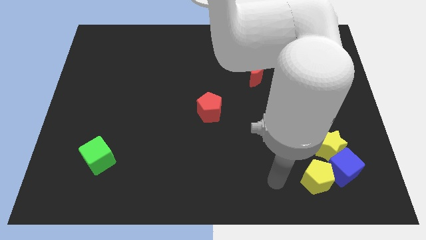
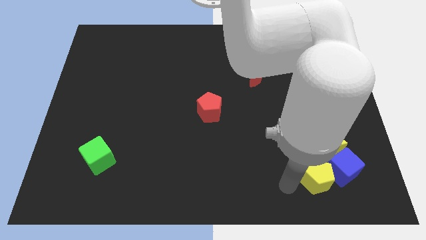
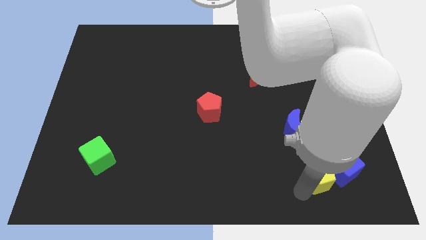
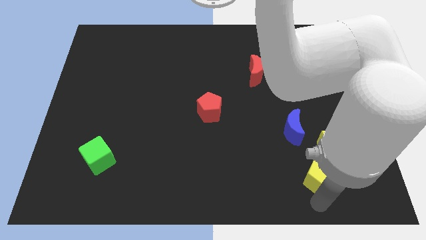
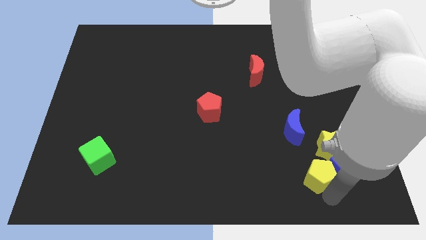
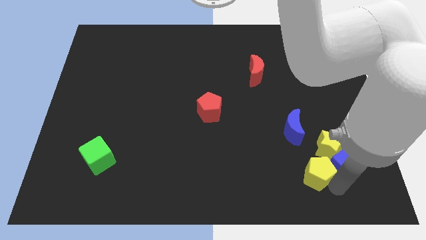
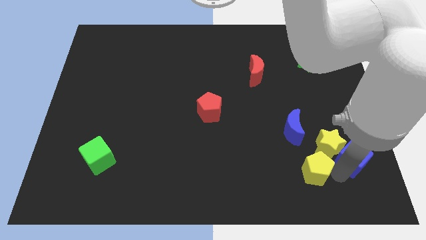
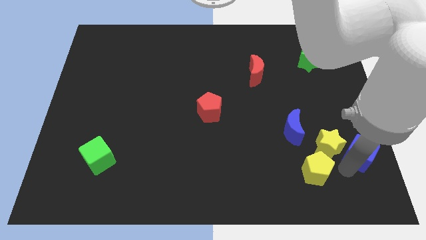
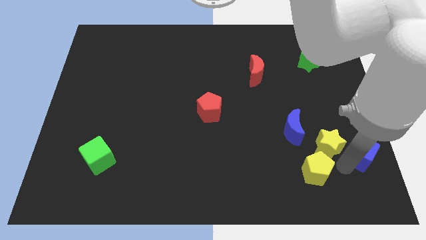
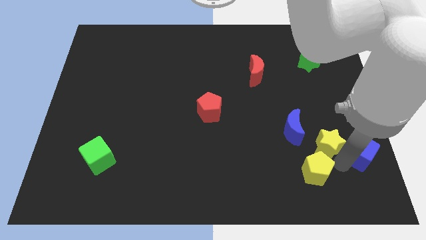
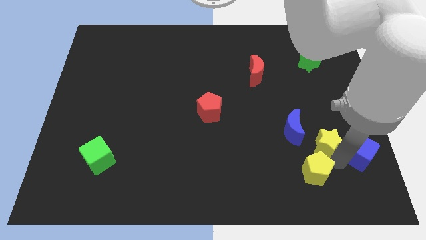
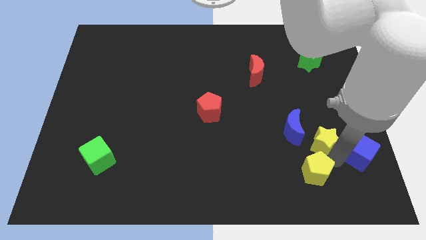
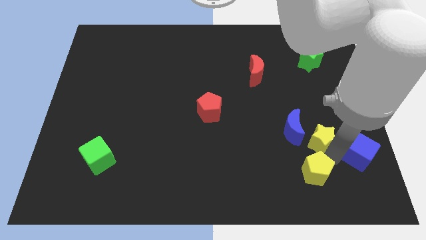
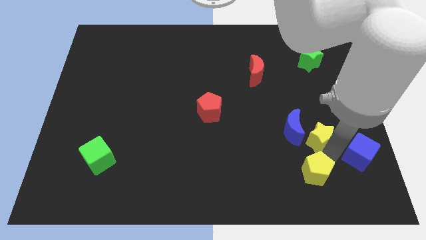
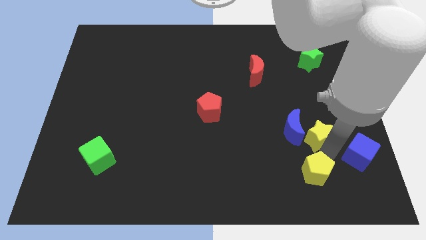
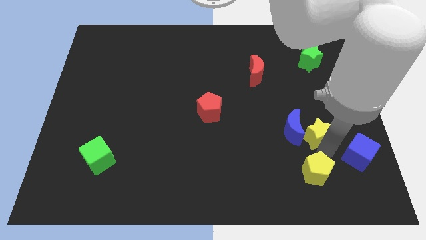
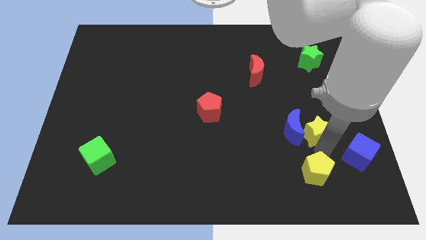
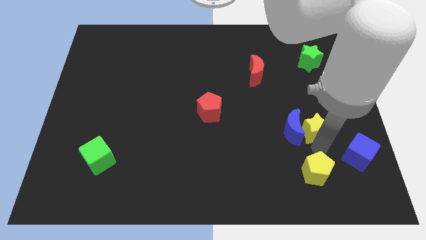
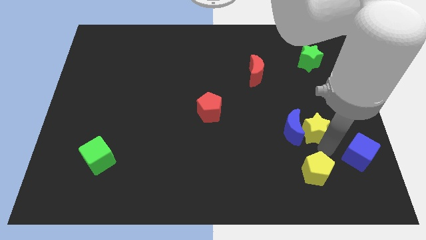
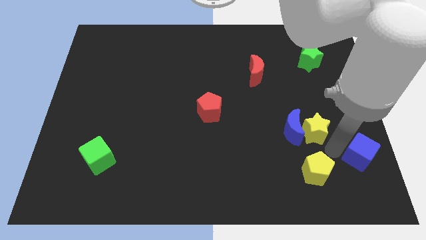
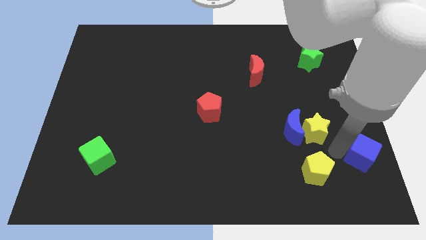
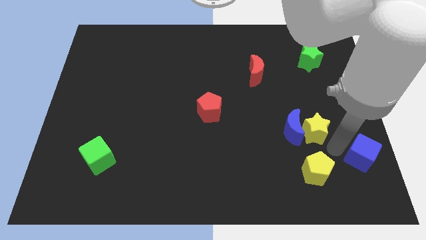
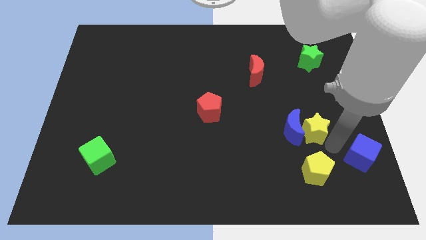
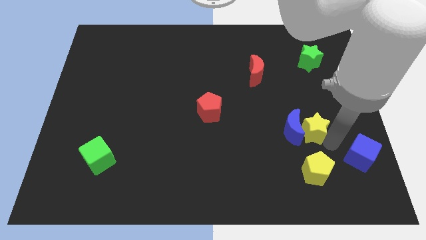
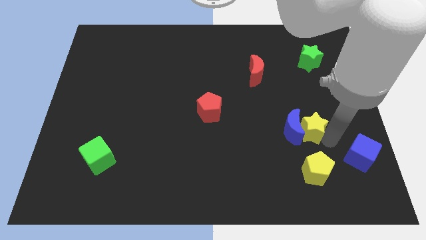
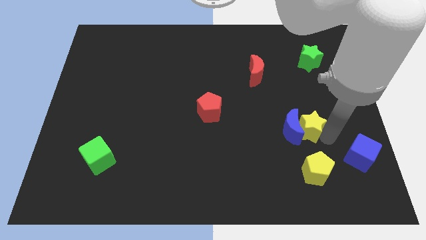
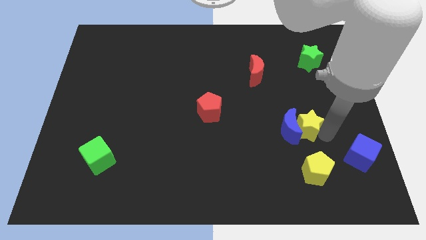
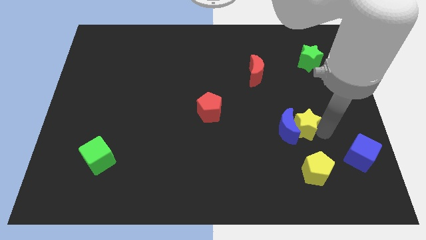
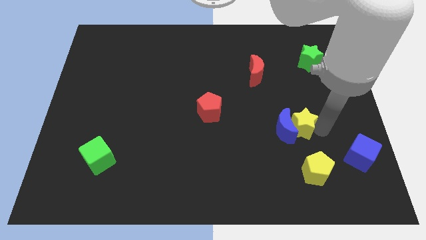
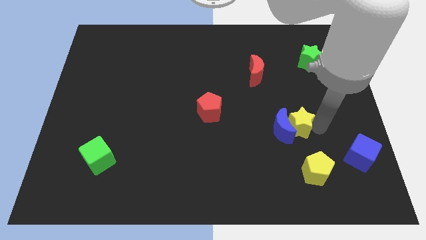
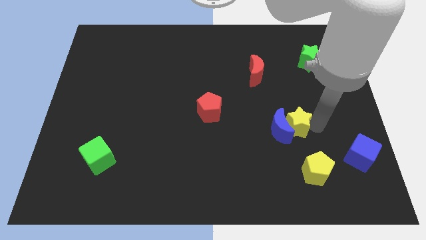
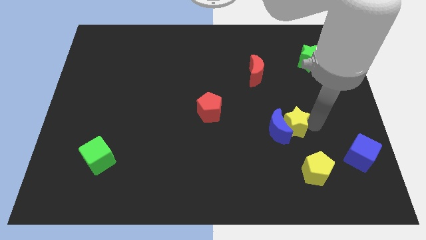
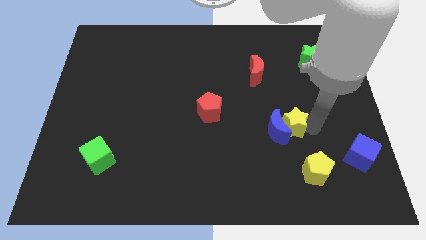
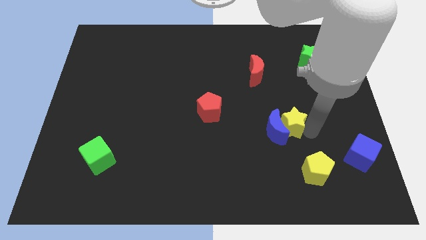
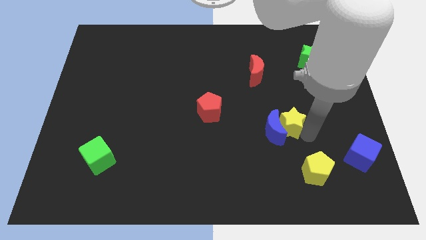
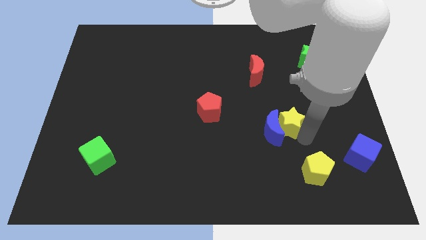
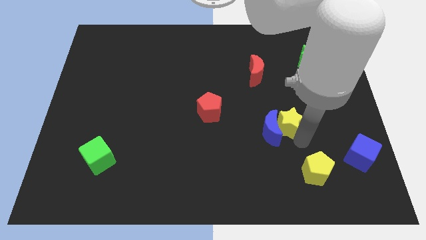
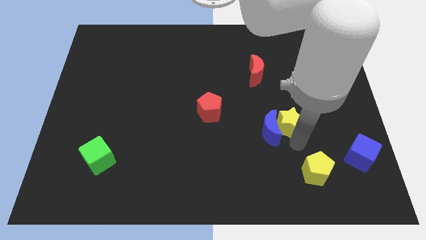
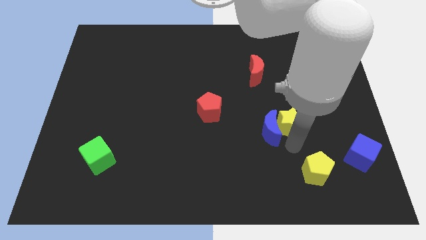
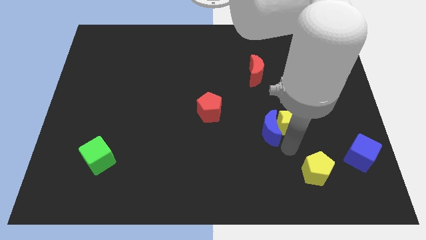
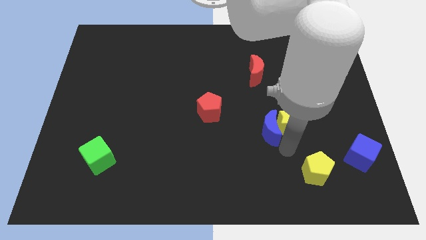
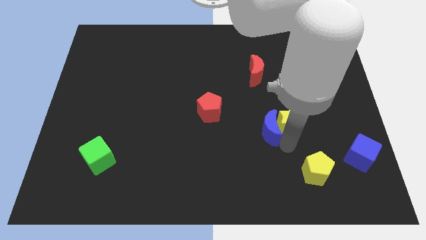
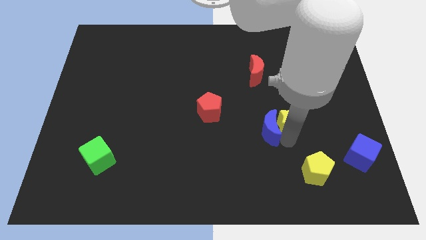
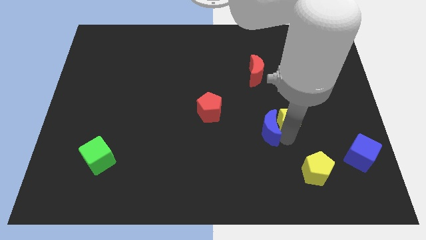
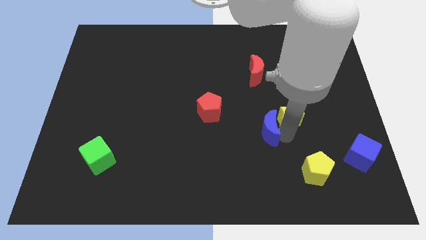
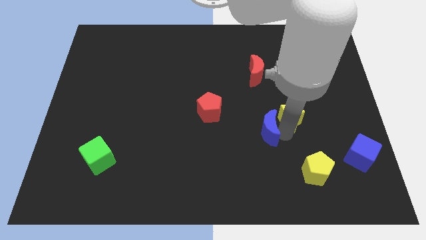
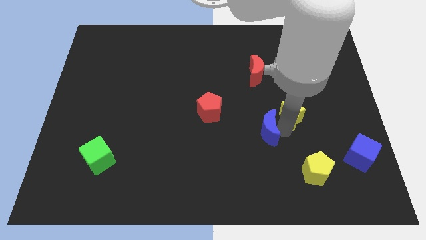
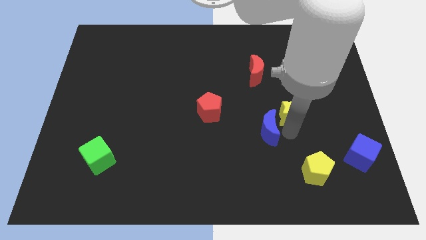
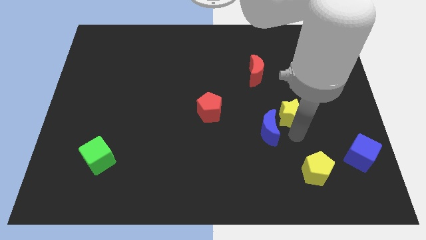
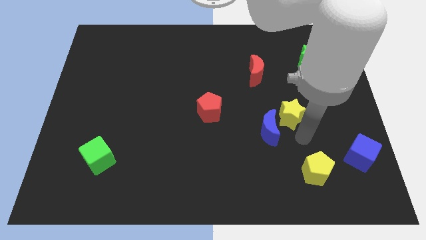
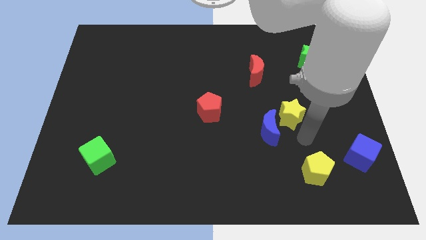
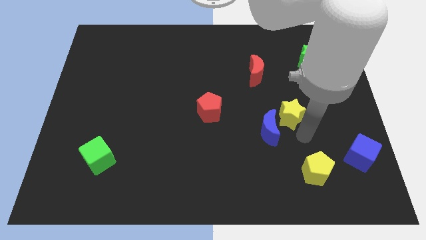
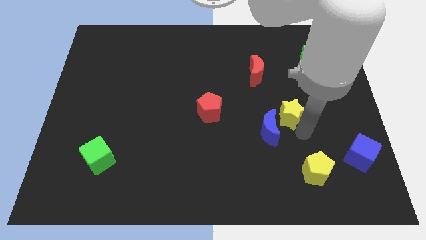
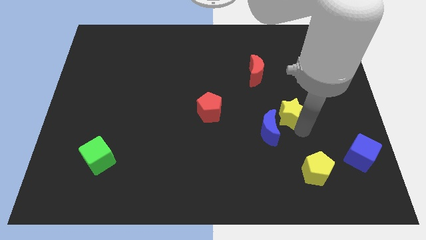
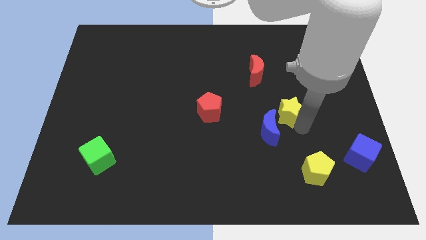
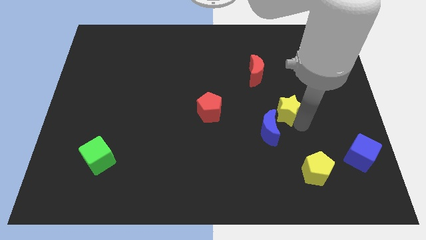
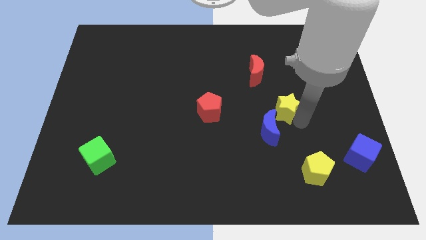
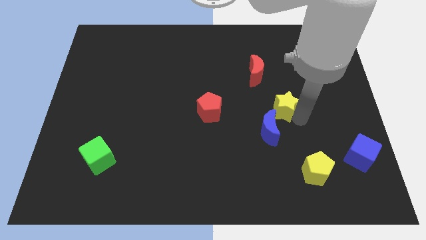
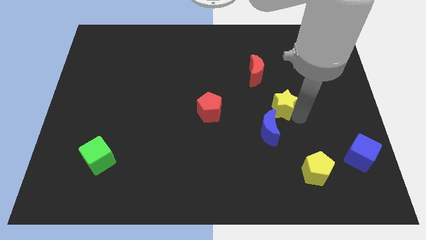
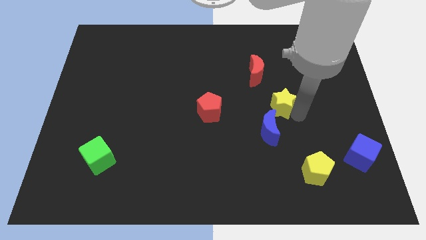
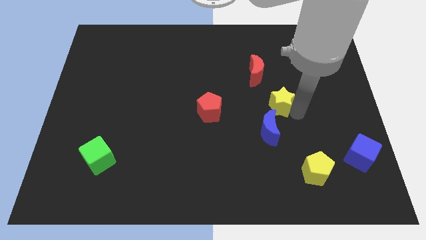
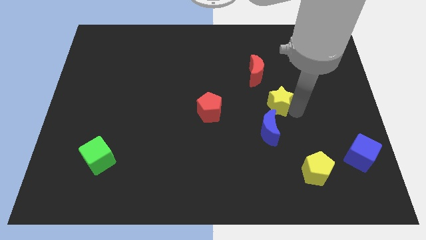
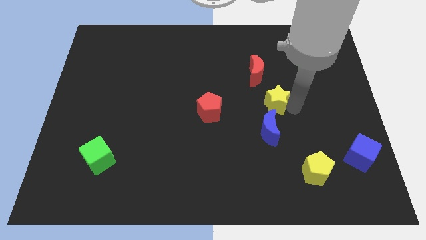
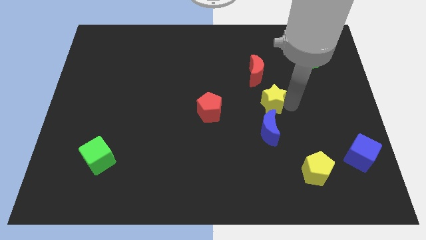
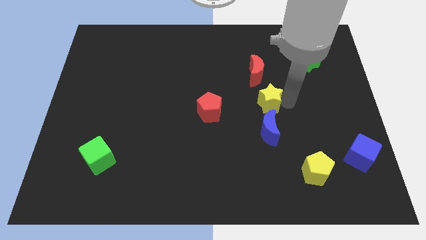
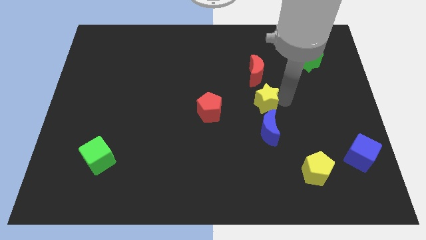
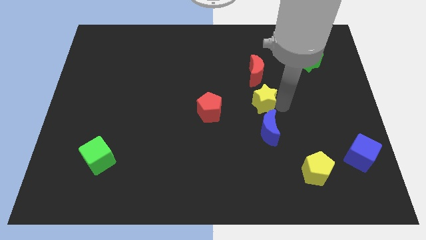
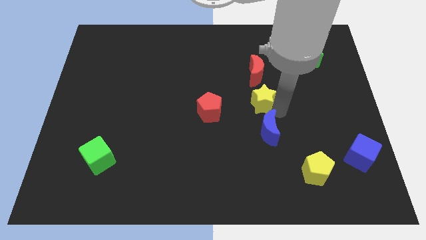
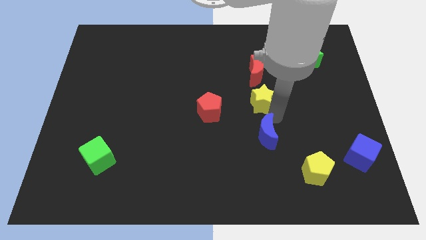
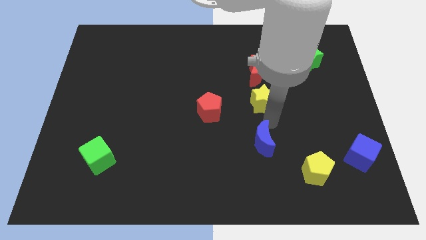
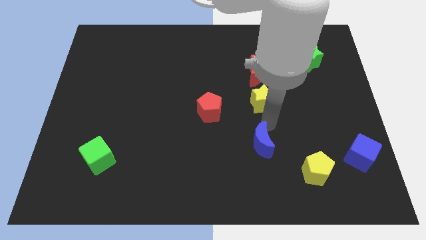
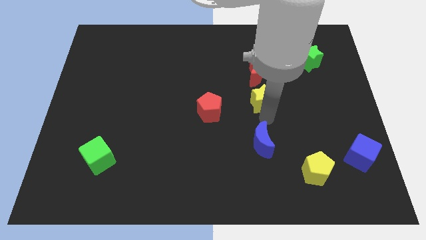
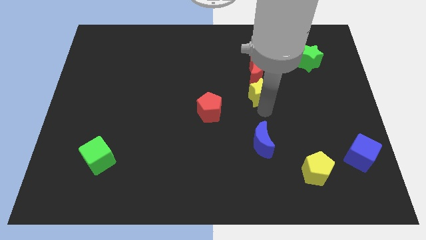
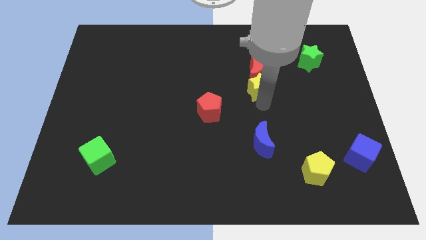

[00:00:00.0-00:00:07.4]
slide the yellow star to the red moon
